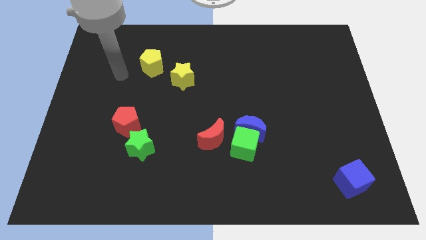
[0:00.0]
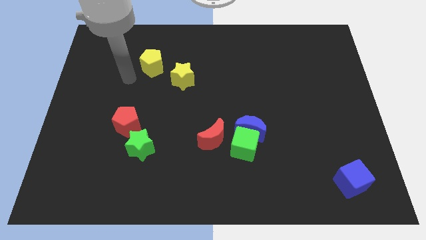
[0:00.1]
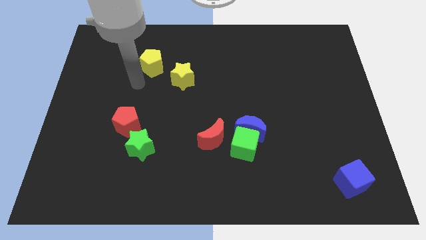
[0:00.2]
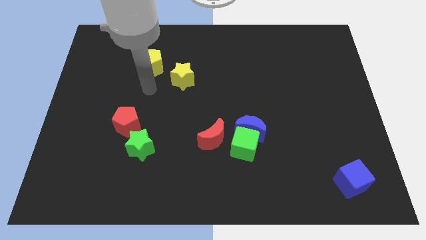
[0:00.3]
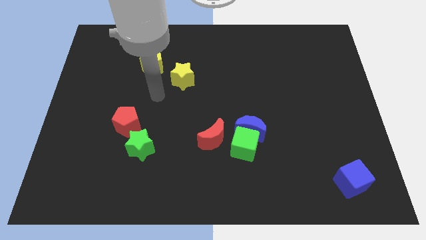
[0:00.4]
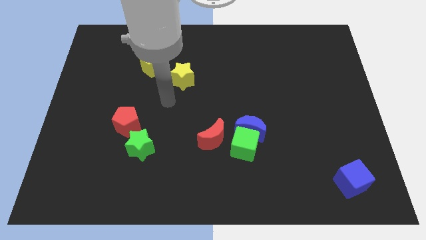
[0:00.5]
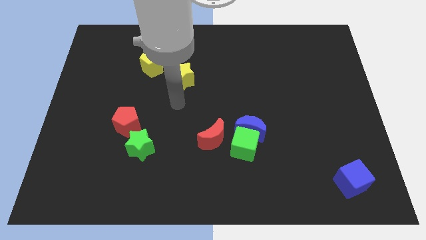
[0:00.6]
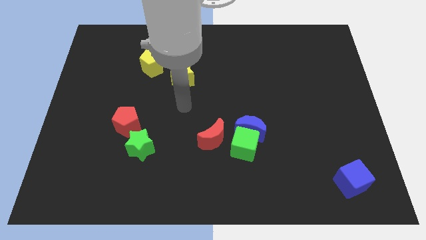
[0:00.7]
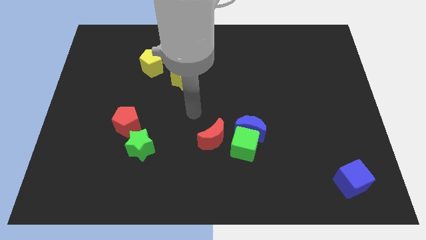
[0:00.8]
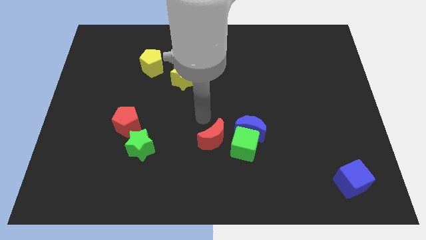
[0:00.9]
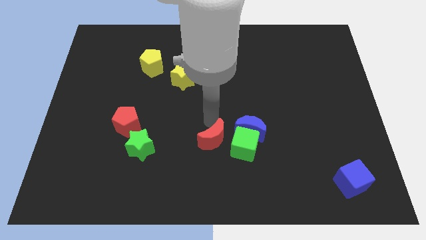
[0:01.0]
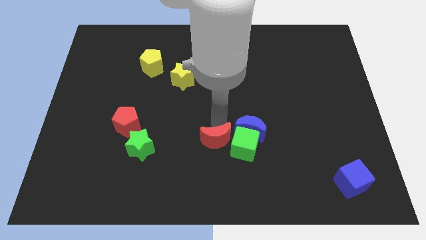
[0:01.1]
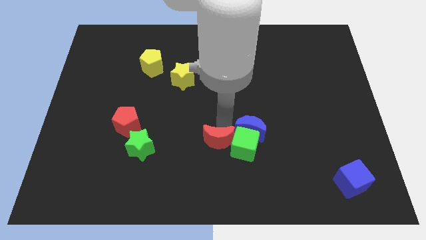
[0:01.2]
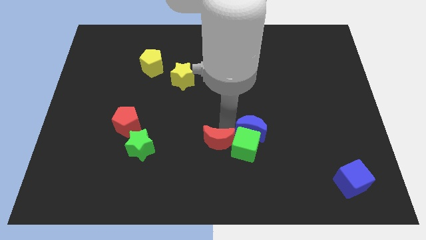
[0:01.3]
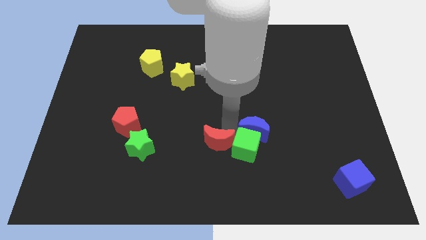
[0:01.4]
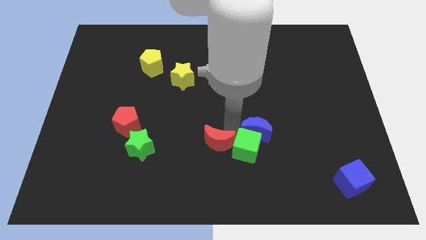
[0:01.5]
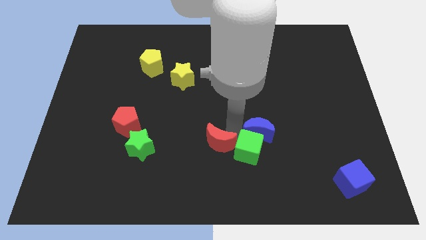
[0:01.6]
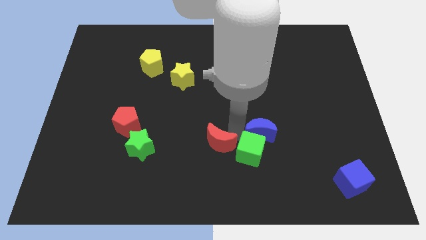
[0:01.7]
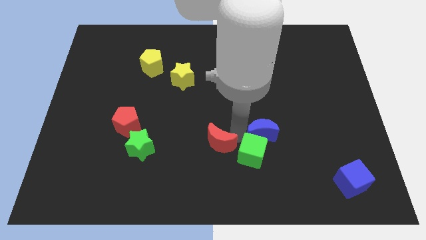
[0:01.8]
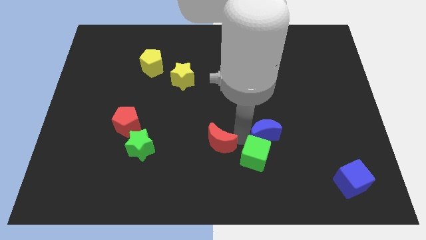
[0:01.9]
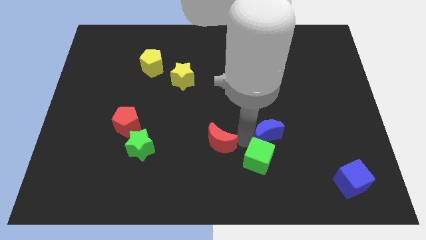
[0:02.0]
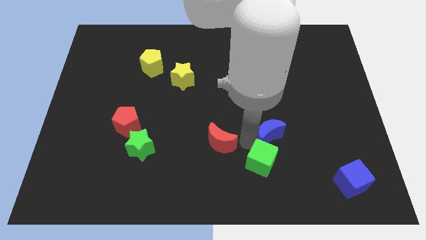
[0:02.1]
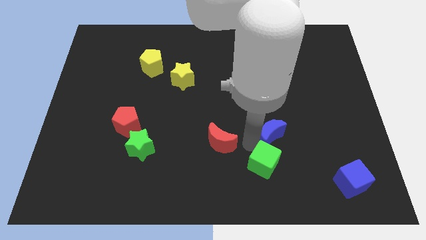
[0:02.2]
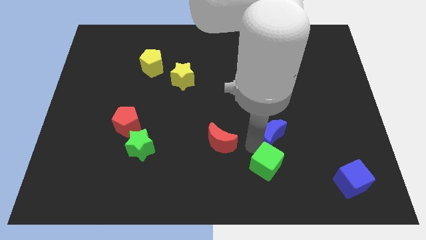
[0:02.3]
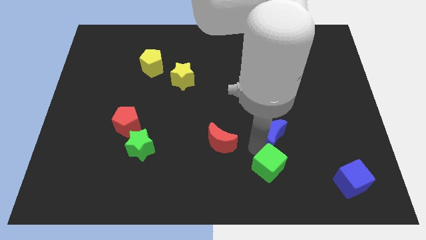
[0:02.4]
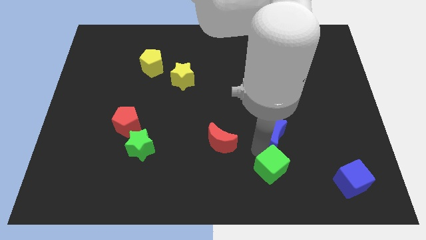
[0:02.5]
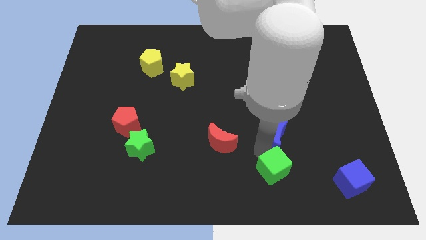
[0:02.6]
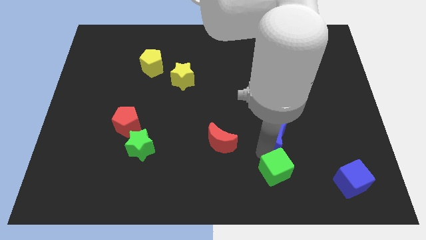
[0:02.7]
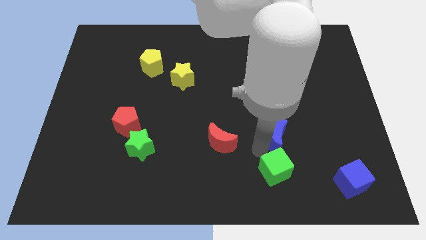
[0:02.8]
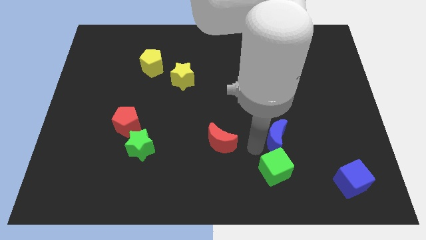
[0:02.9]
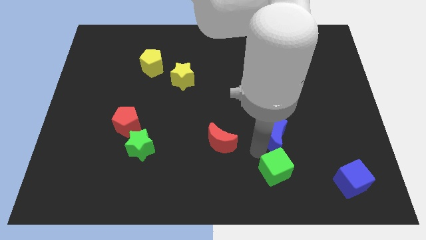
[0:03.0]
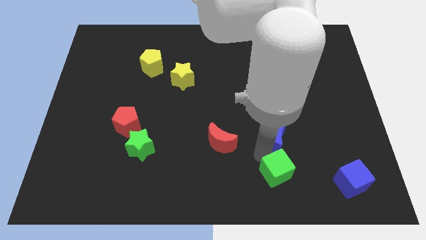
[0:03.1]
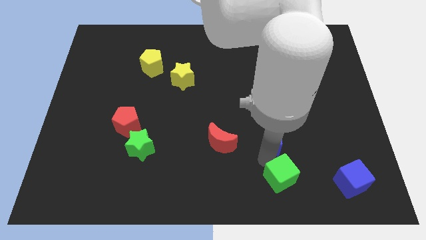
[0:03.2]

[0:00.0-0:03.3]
separate the green cube from the blue moon and red moon

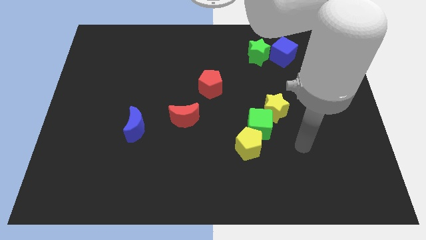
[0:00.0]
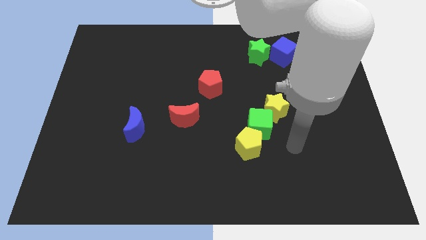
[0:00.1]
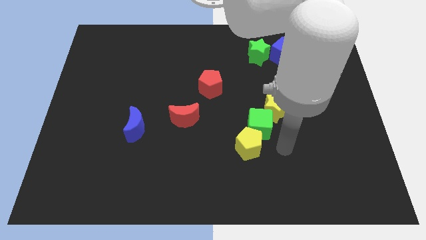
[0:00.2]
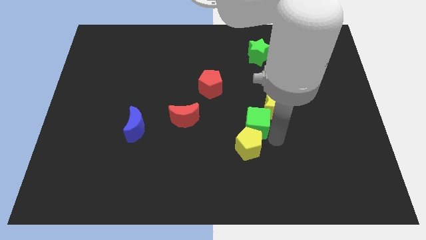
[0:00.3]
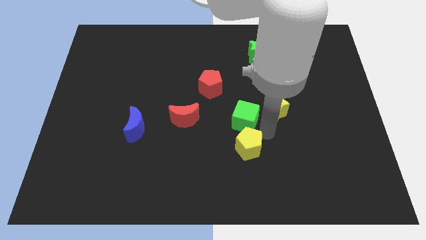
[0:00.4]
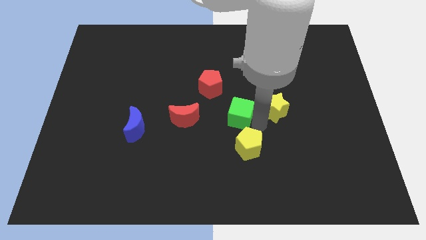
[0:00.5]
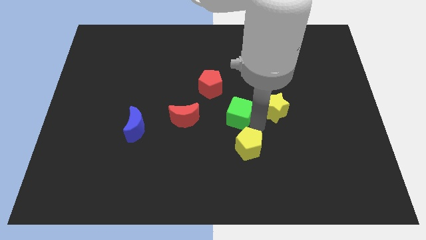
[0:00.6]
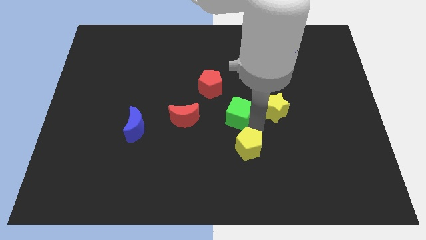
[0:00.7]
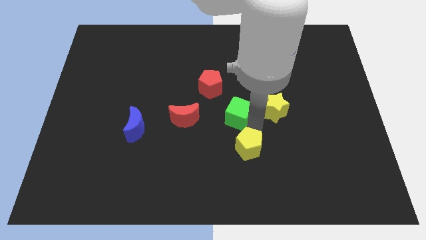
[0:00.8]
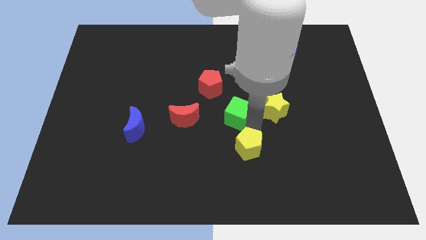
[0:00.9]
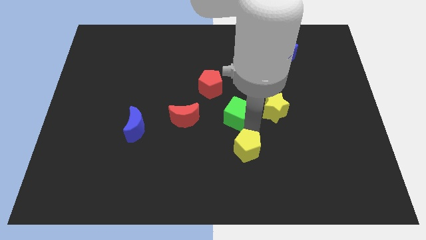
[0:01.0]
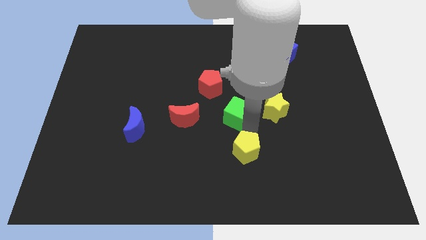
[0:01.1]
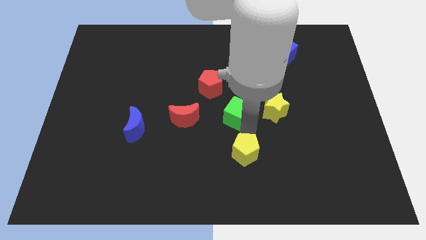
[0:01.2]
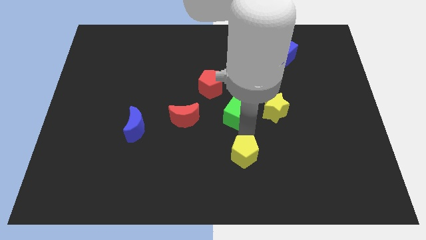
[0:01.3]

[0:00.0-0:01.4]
separate the yellow pentagon from the green cube

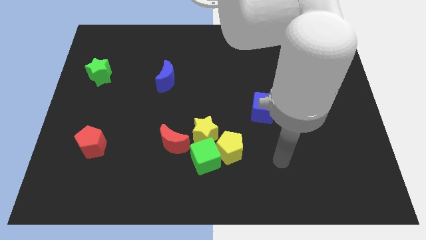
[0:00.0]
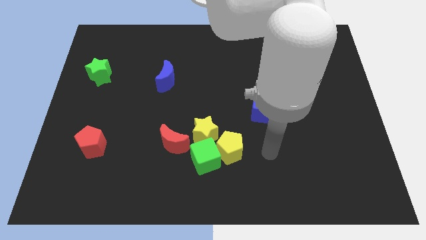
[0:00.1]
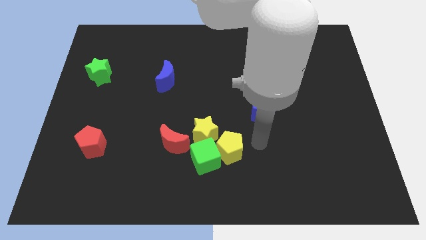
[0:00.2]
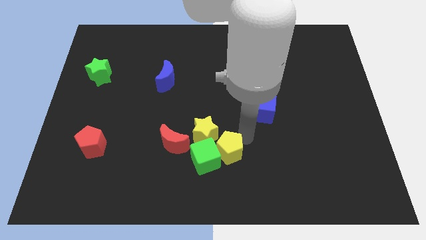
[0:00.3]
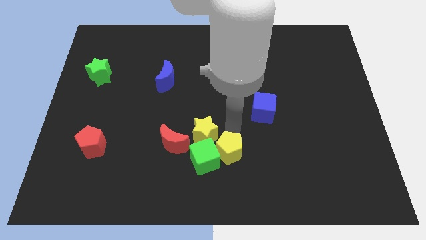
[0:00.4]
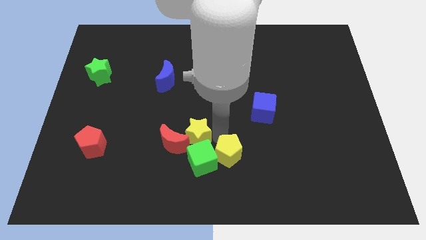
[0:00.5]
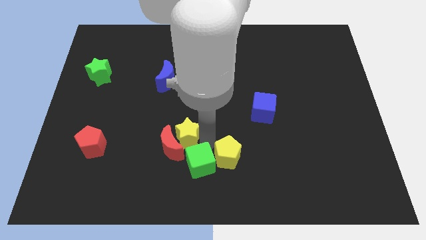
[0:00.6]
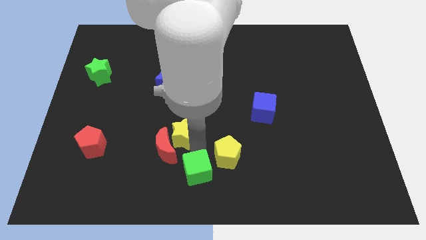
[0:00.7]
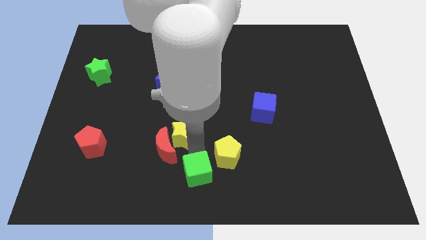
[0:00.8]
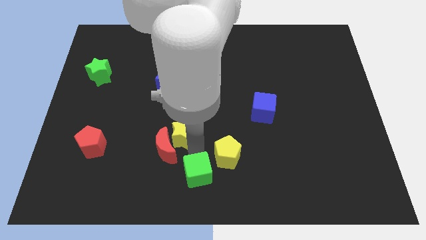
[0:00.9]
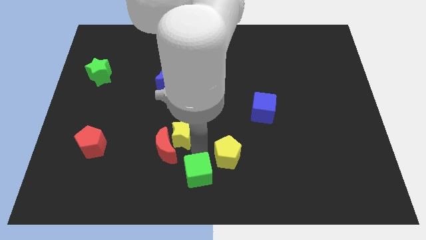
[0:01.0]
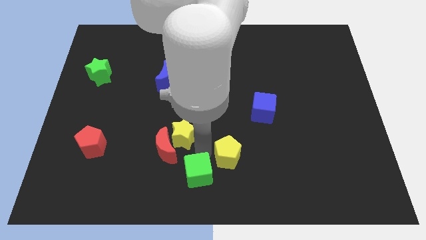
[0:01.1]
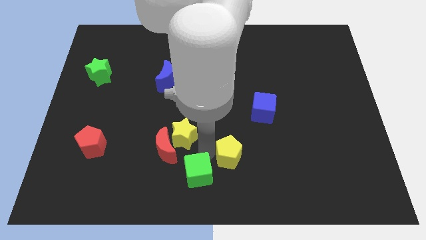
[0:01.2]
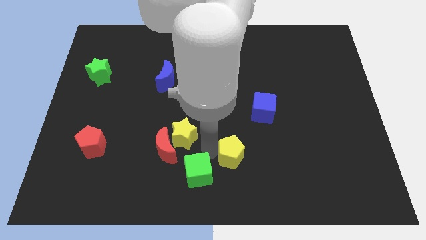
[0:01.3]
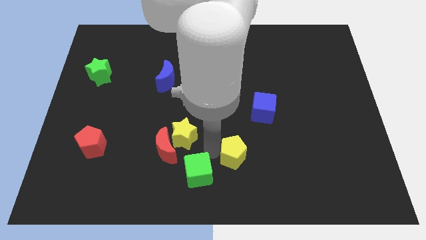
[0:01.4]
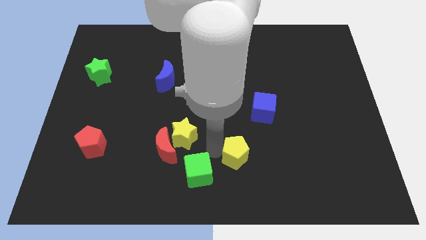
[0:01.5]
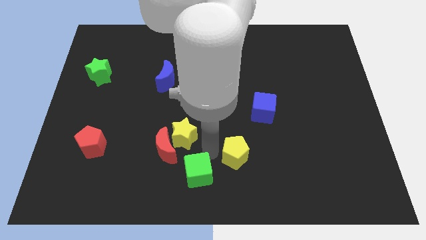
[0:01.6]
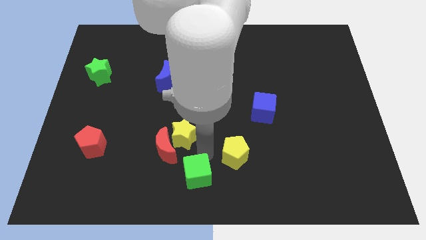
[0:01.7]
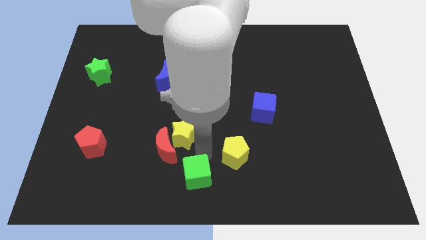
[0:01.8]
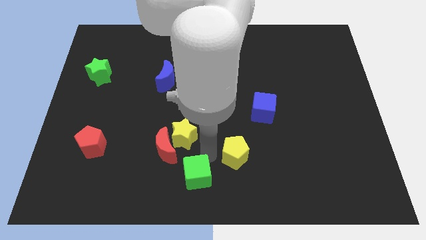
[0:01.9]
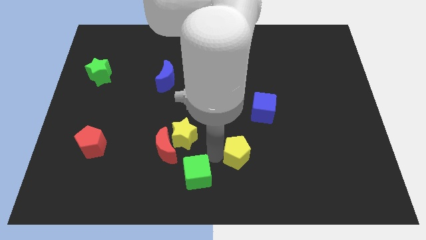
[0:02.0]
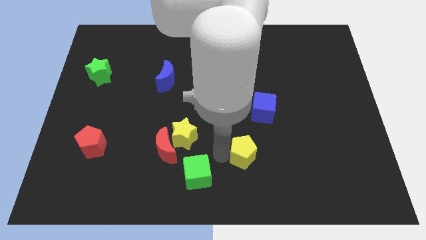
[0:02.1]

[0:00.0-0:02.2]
separate the yellow pentagon from the green cube and yellow star

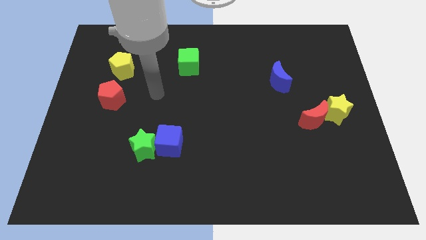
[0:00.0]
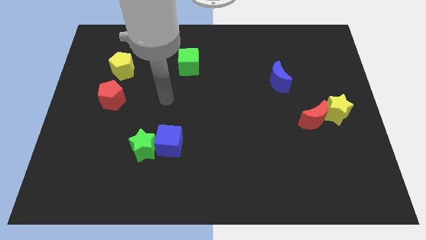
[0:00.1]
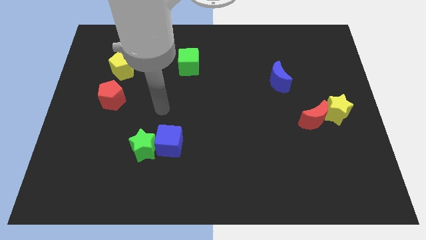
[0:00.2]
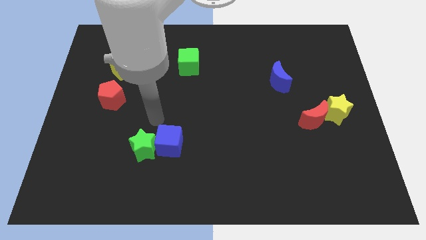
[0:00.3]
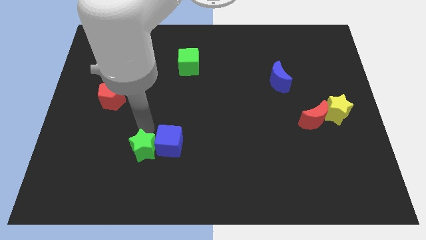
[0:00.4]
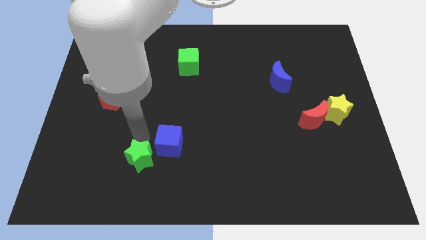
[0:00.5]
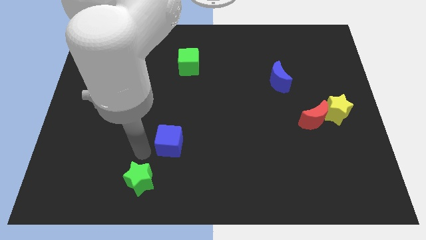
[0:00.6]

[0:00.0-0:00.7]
move the blue cube away from the green star

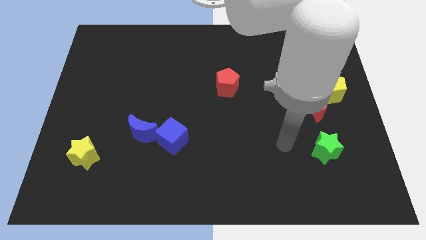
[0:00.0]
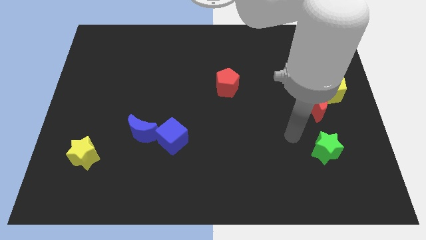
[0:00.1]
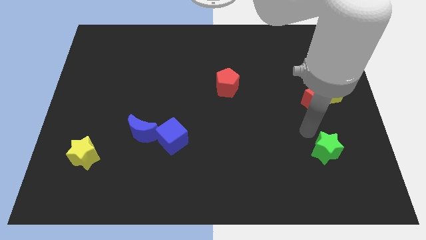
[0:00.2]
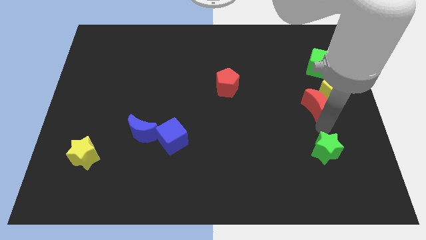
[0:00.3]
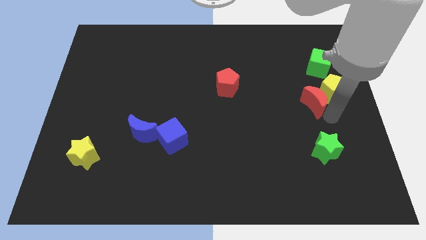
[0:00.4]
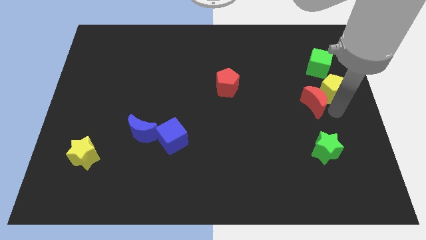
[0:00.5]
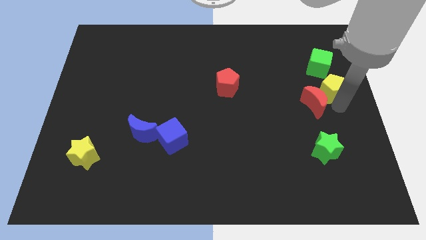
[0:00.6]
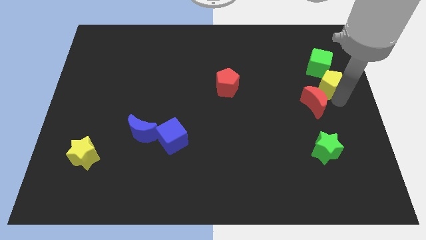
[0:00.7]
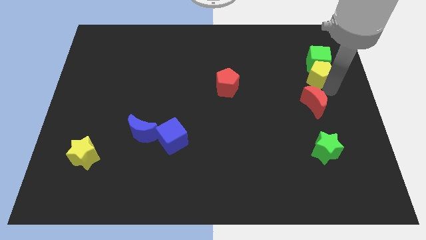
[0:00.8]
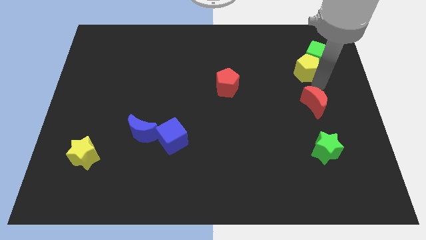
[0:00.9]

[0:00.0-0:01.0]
move the red moon away from the yellow pentagon

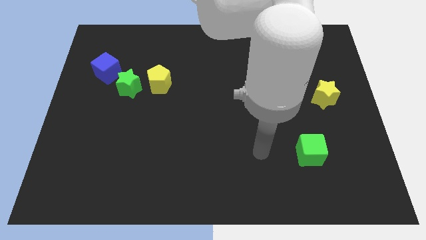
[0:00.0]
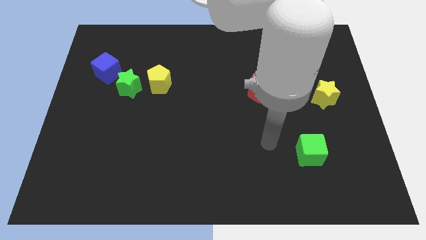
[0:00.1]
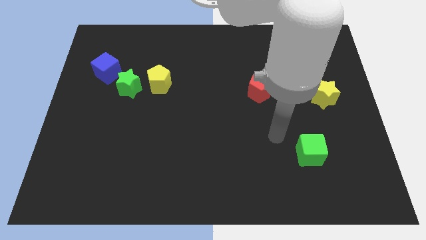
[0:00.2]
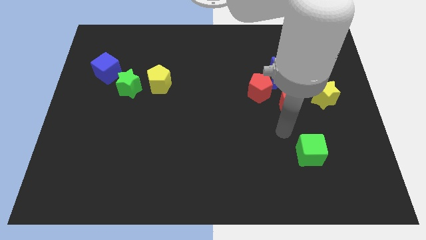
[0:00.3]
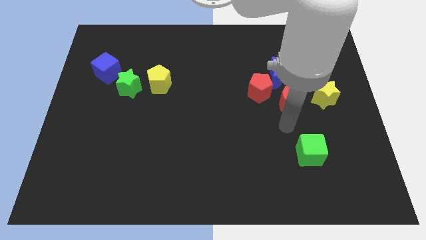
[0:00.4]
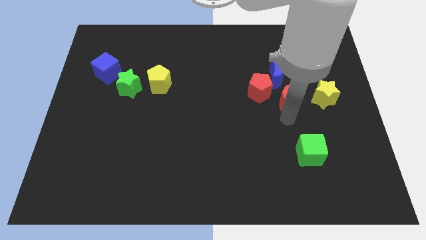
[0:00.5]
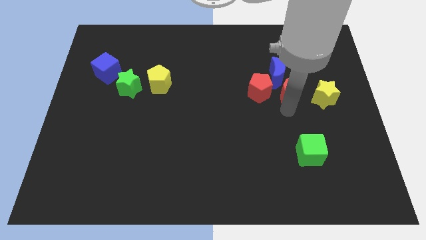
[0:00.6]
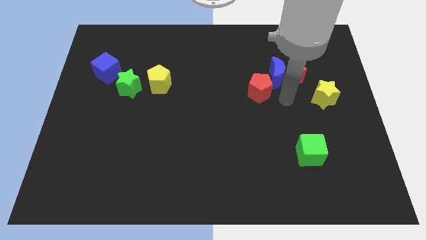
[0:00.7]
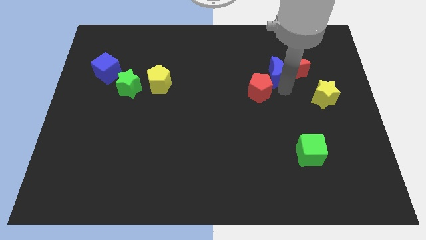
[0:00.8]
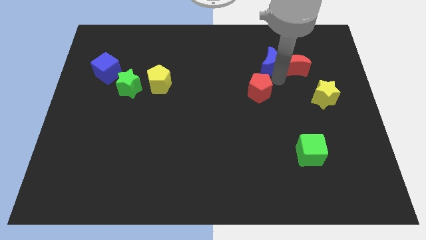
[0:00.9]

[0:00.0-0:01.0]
pull the red pentagon apart from the blue moon and red moon
